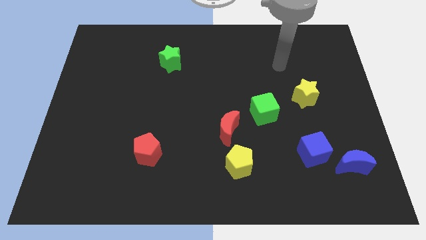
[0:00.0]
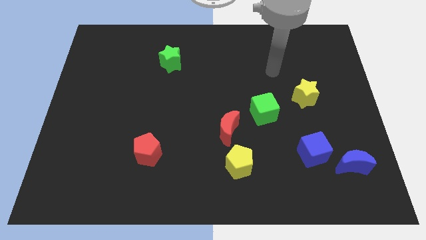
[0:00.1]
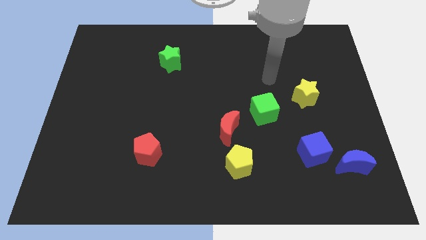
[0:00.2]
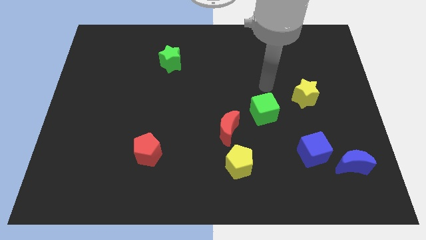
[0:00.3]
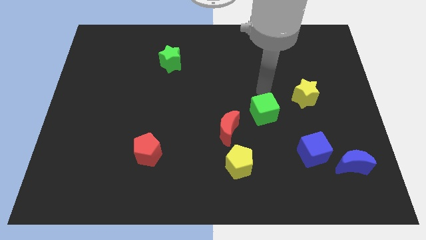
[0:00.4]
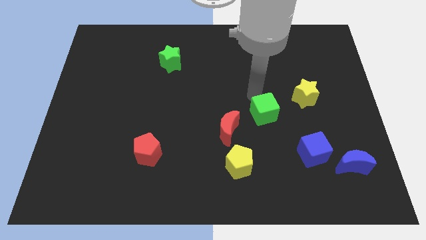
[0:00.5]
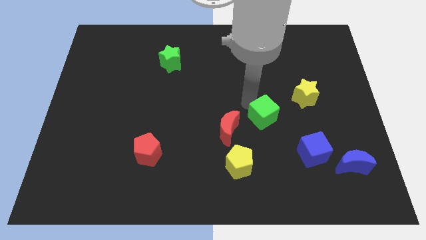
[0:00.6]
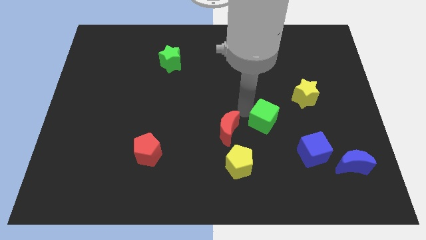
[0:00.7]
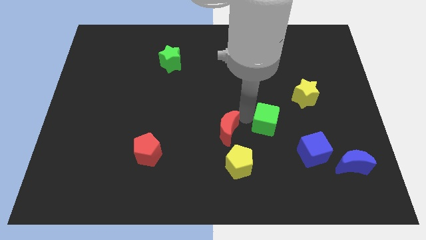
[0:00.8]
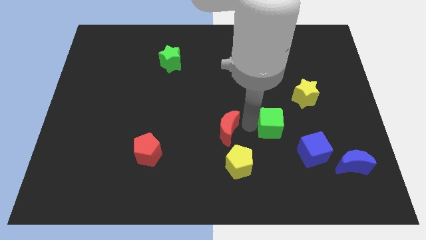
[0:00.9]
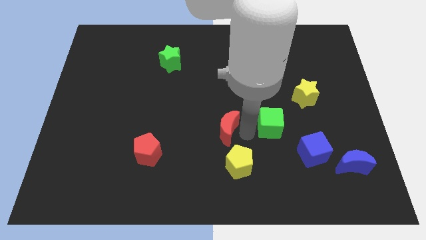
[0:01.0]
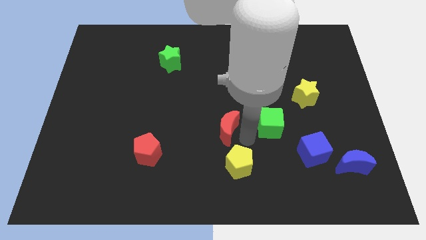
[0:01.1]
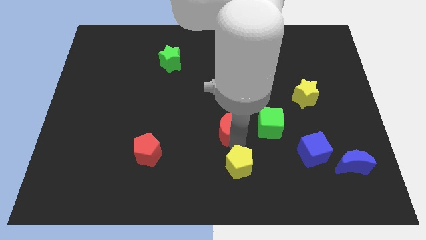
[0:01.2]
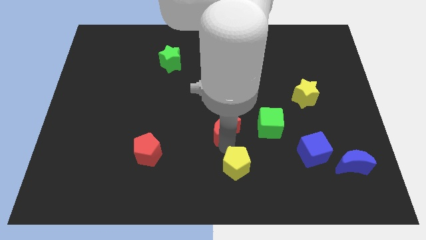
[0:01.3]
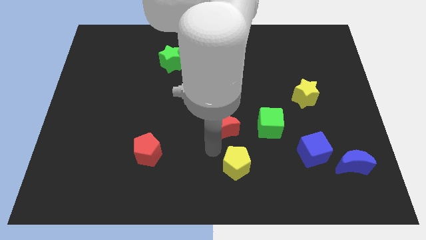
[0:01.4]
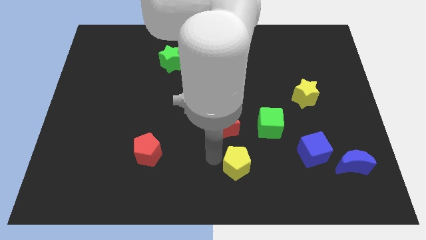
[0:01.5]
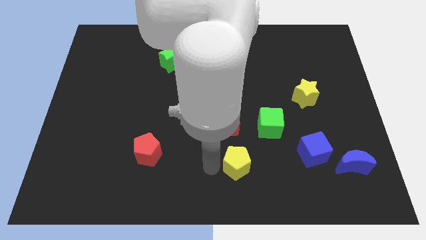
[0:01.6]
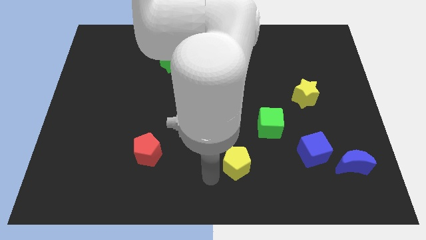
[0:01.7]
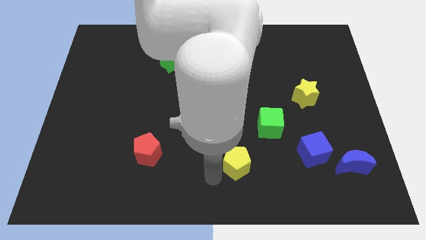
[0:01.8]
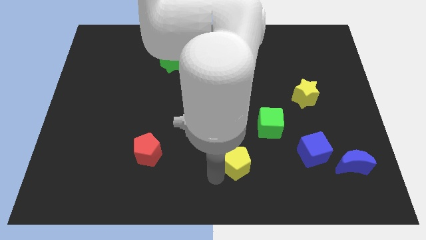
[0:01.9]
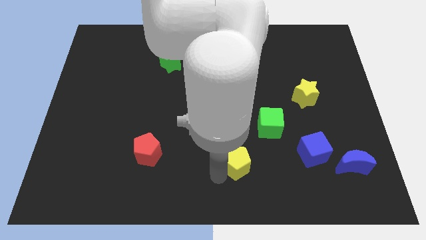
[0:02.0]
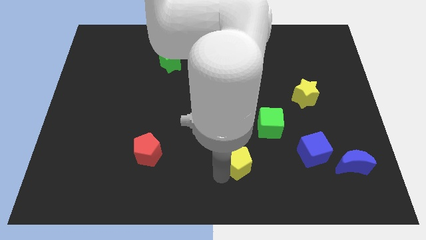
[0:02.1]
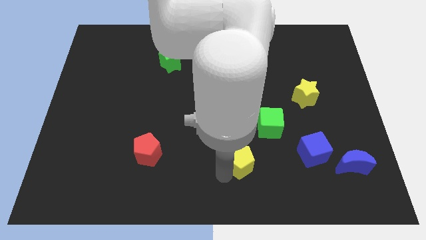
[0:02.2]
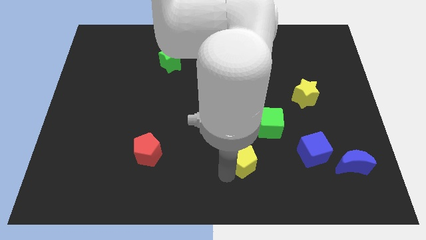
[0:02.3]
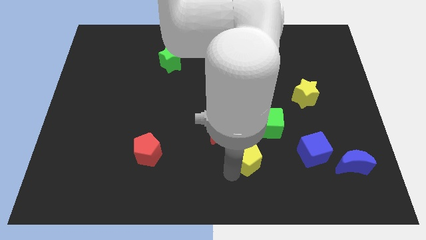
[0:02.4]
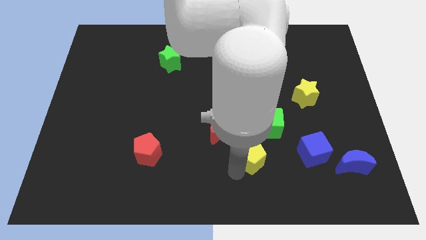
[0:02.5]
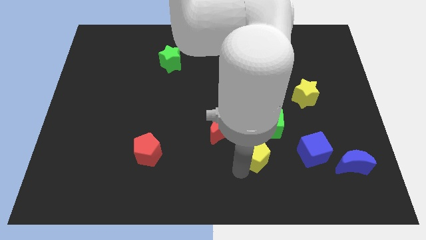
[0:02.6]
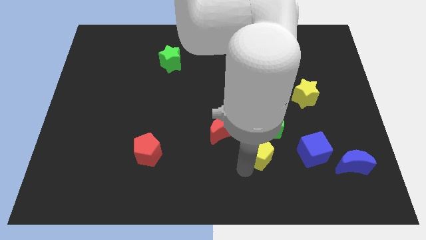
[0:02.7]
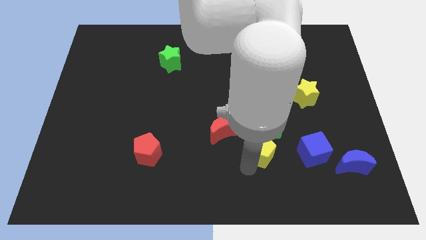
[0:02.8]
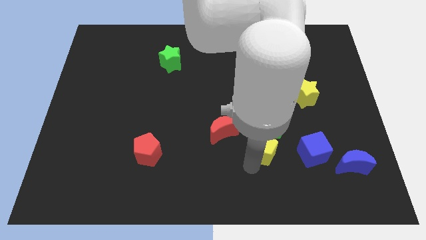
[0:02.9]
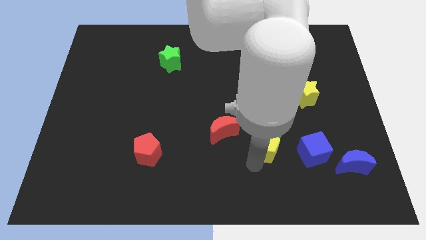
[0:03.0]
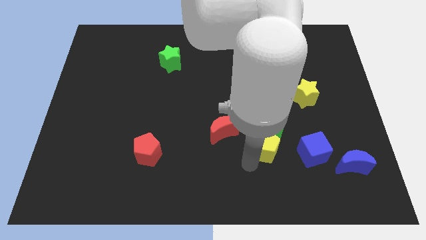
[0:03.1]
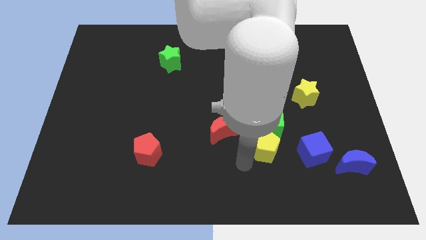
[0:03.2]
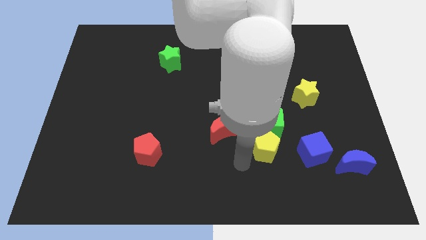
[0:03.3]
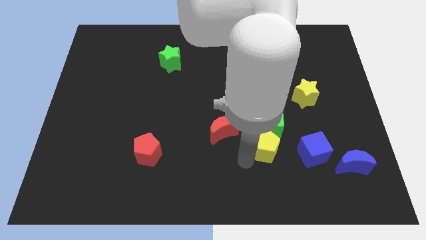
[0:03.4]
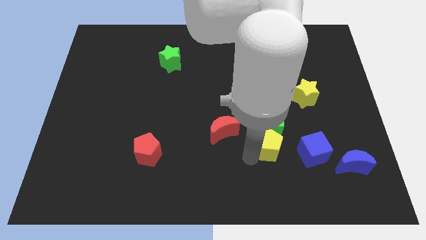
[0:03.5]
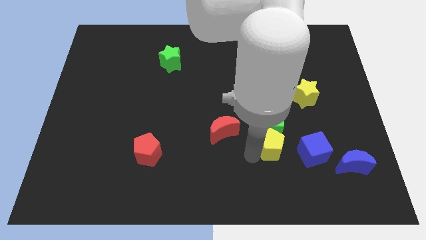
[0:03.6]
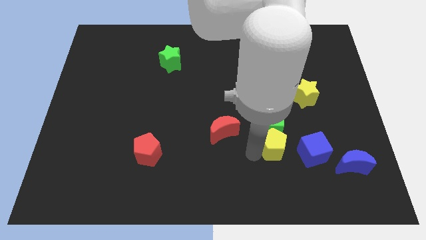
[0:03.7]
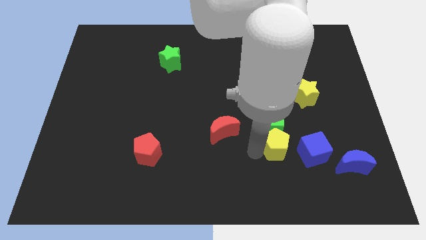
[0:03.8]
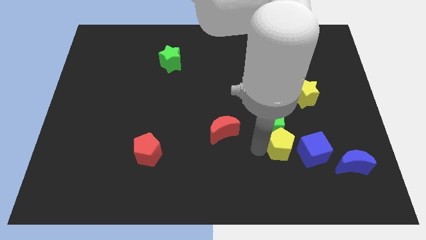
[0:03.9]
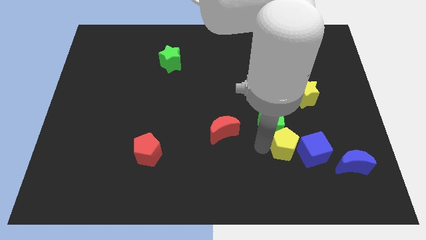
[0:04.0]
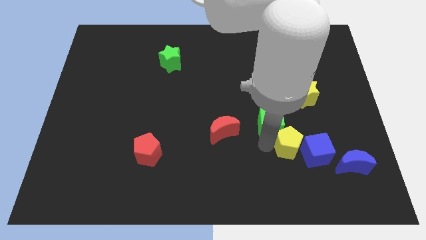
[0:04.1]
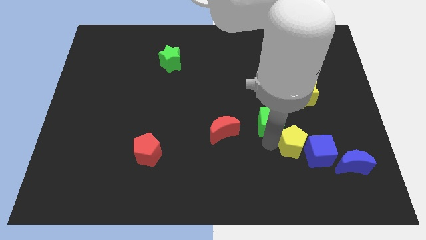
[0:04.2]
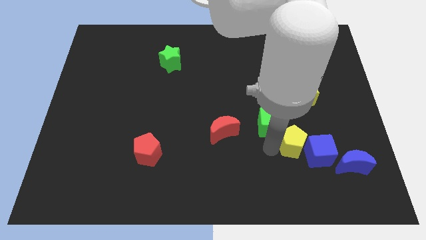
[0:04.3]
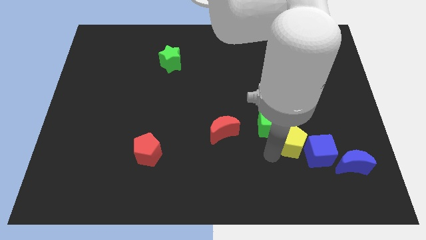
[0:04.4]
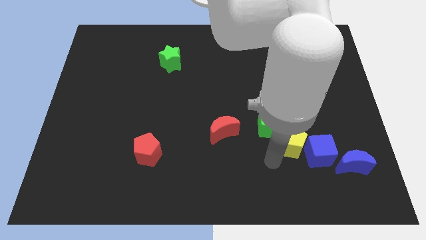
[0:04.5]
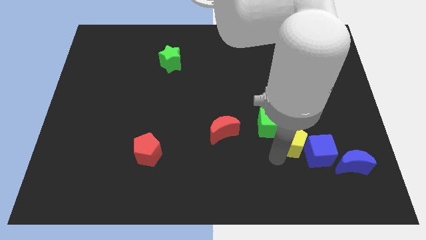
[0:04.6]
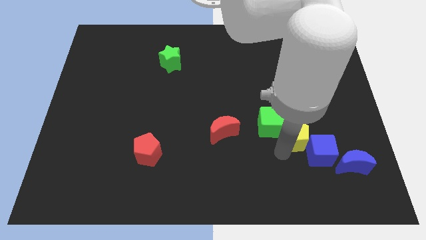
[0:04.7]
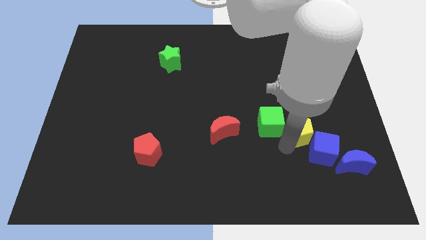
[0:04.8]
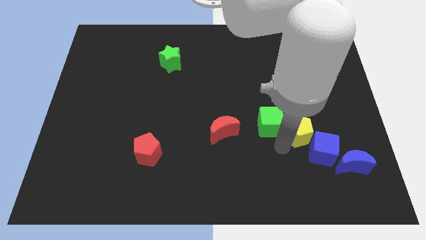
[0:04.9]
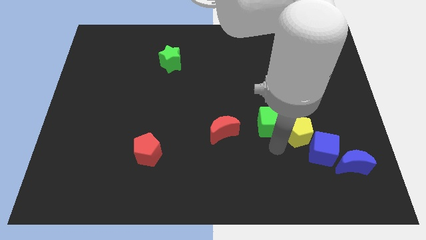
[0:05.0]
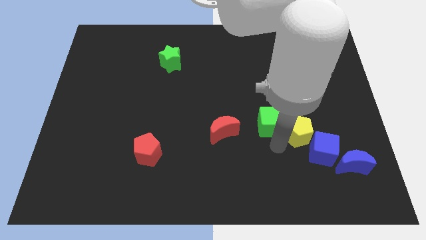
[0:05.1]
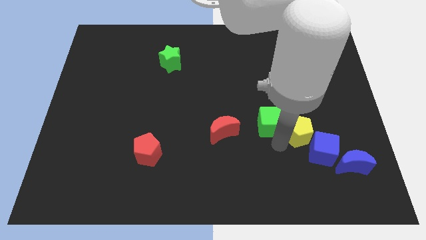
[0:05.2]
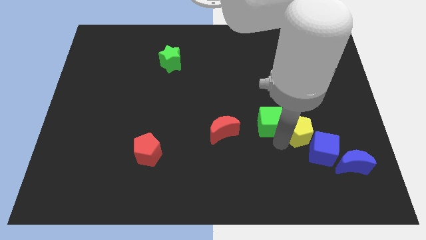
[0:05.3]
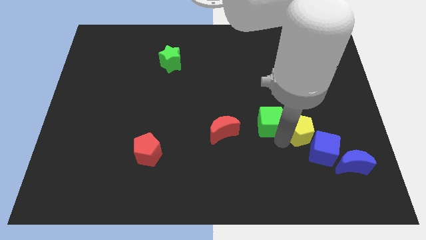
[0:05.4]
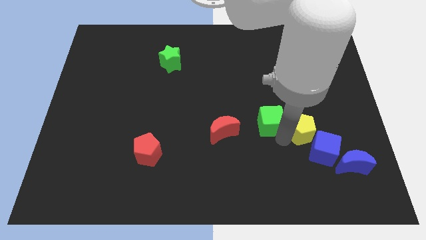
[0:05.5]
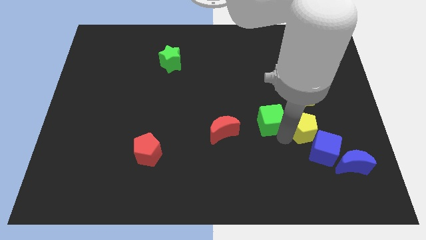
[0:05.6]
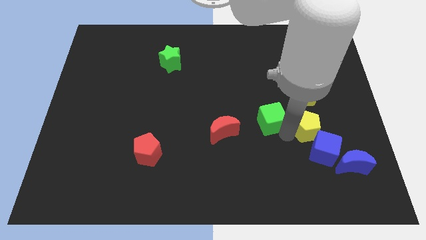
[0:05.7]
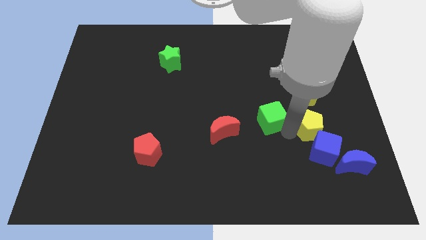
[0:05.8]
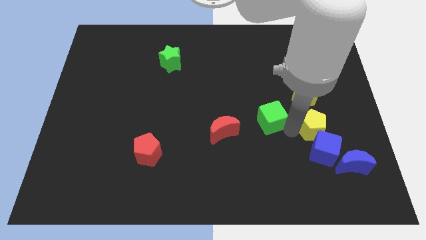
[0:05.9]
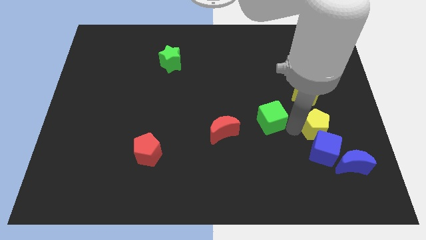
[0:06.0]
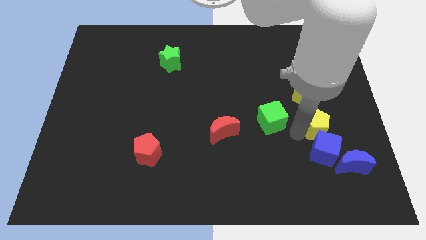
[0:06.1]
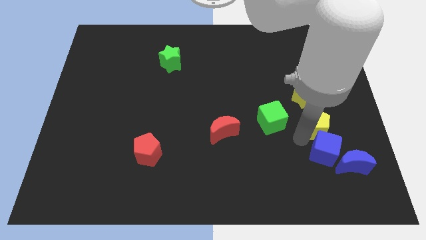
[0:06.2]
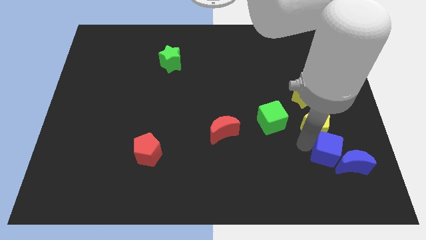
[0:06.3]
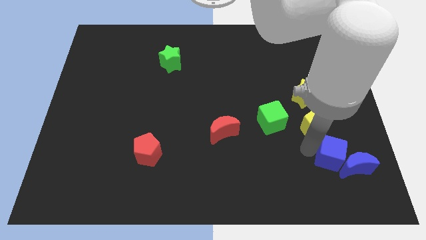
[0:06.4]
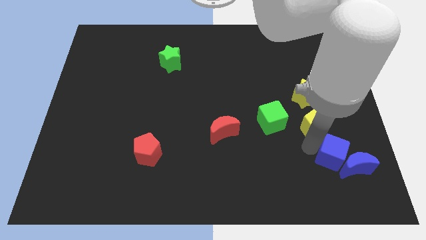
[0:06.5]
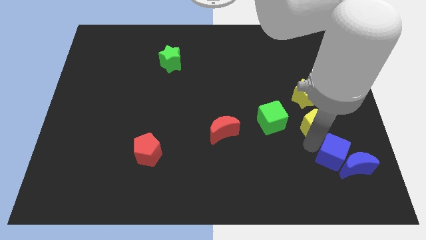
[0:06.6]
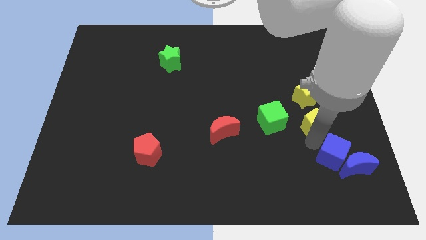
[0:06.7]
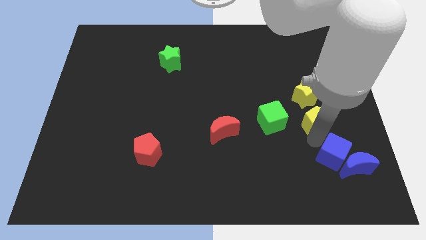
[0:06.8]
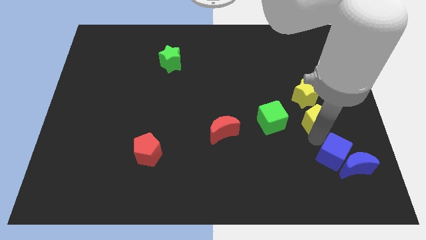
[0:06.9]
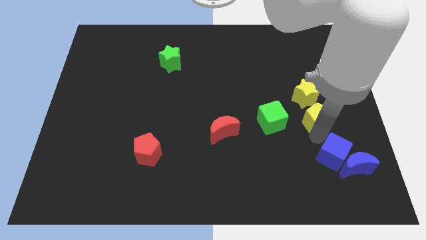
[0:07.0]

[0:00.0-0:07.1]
slide the yellow pentagon up and right diagonally

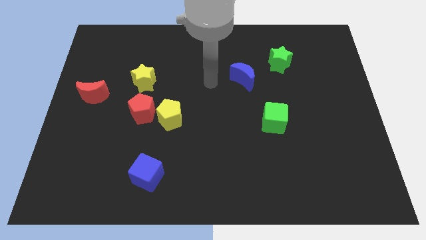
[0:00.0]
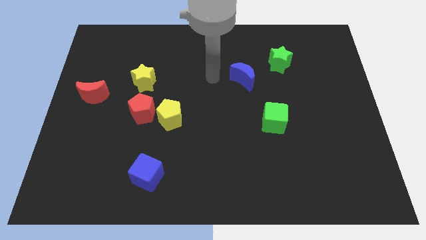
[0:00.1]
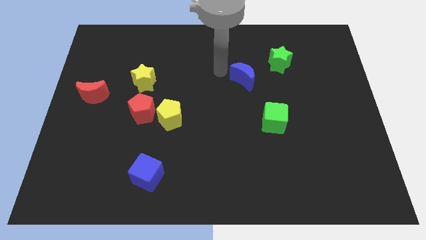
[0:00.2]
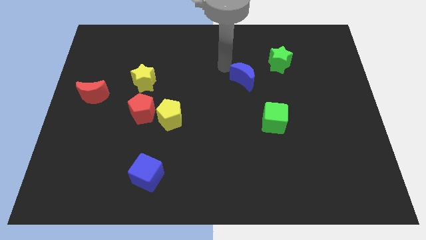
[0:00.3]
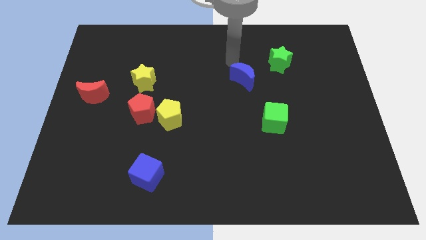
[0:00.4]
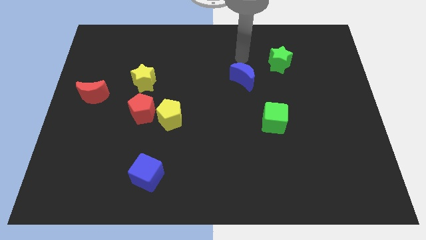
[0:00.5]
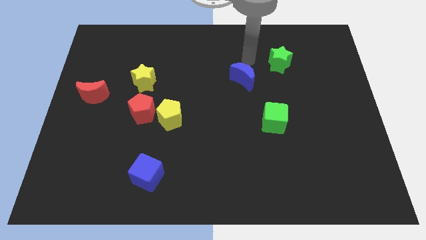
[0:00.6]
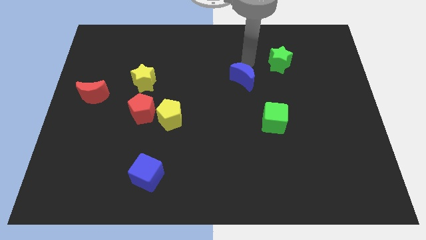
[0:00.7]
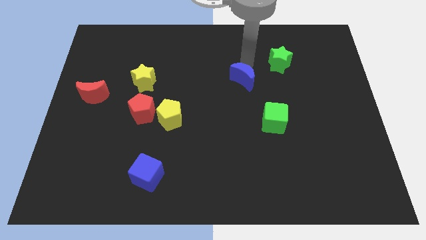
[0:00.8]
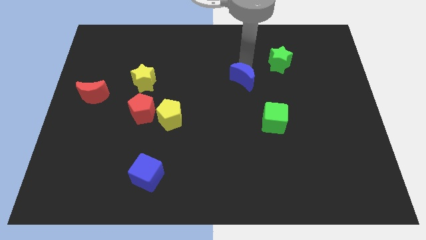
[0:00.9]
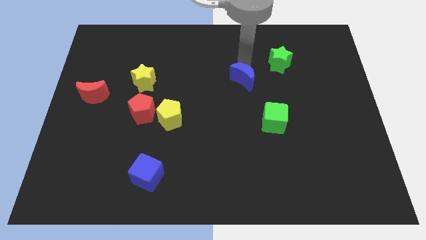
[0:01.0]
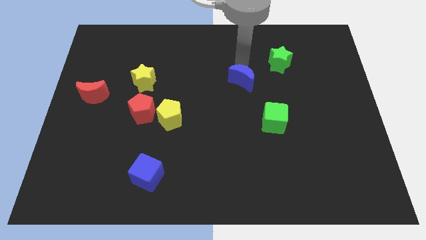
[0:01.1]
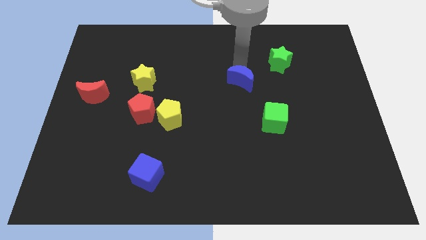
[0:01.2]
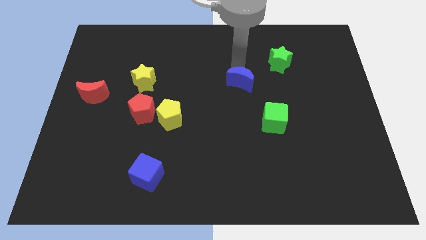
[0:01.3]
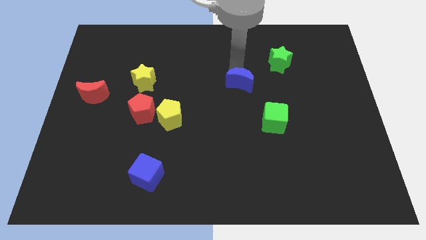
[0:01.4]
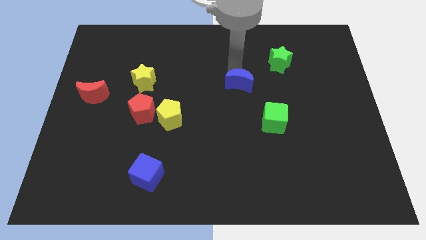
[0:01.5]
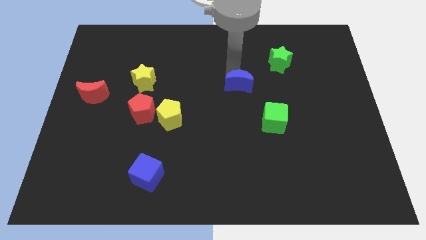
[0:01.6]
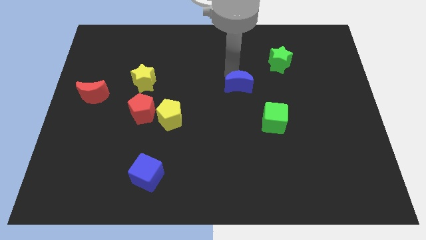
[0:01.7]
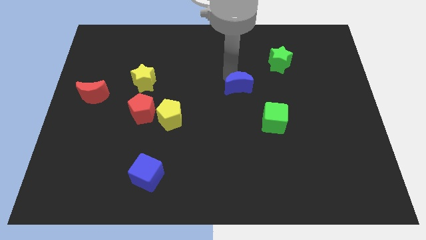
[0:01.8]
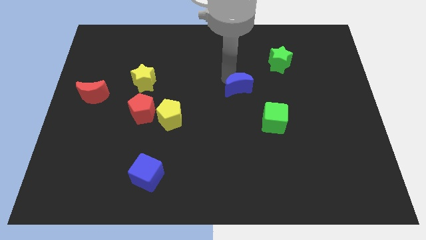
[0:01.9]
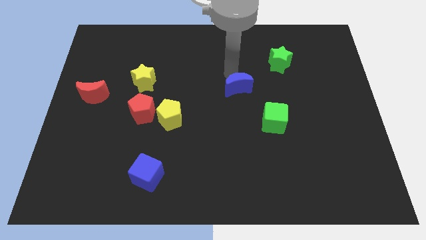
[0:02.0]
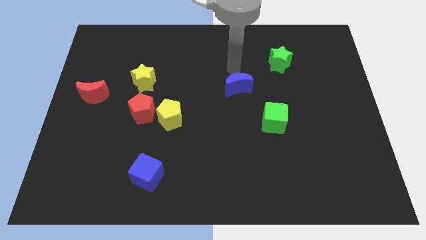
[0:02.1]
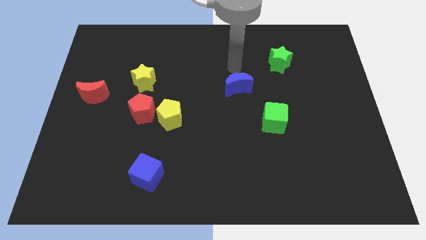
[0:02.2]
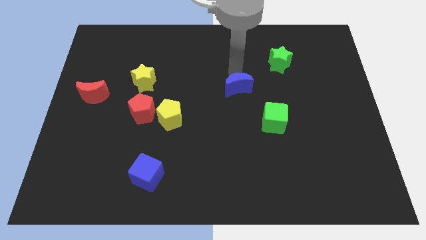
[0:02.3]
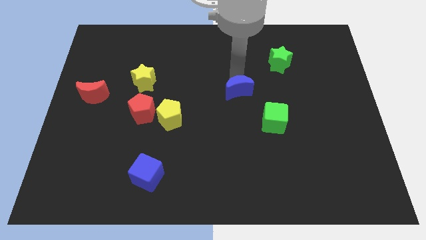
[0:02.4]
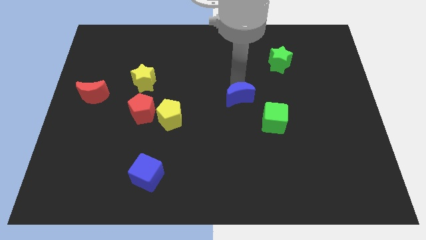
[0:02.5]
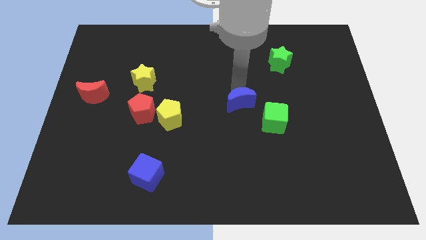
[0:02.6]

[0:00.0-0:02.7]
slide the blue moon a little bit down
